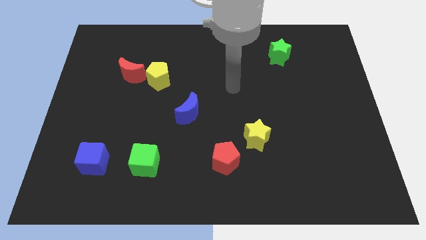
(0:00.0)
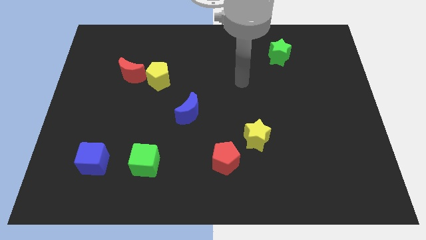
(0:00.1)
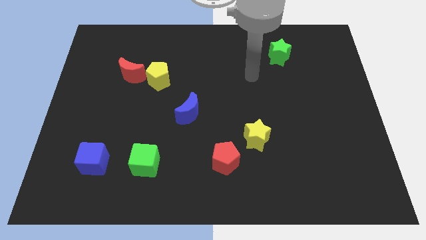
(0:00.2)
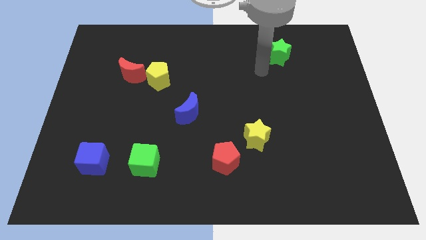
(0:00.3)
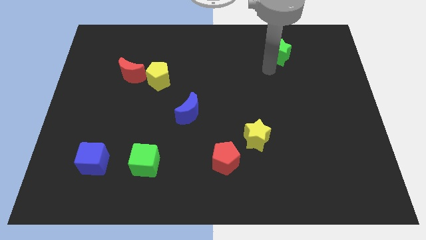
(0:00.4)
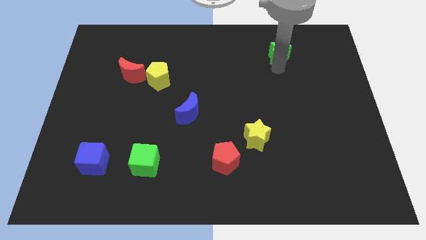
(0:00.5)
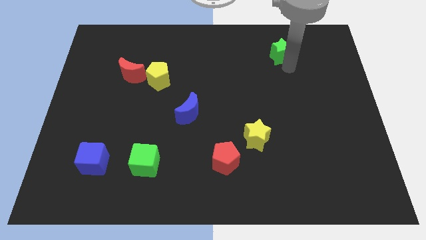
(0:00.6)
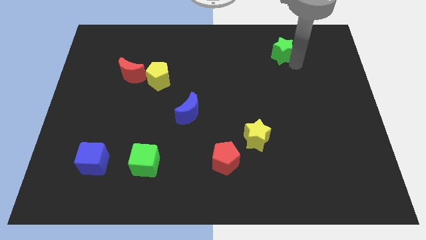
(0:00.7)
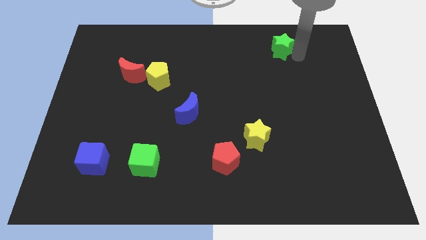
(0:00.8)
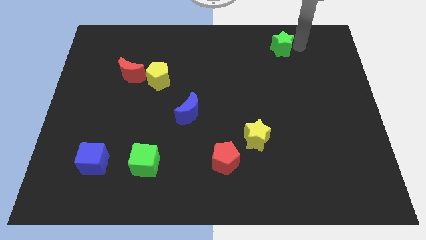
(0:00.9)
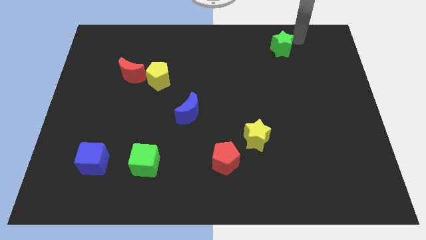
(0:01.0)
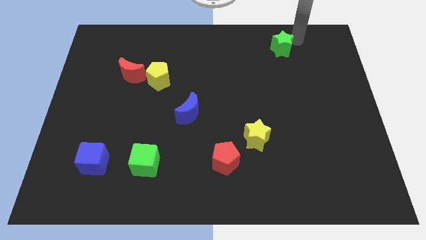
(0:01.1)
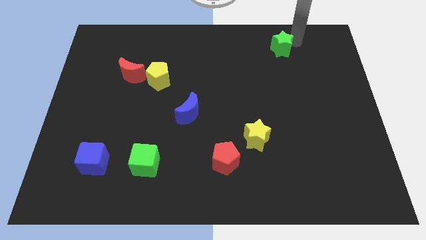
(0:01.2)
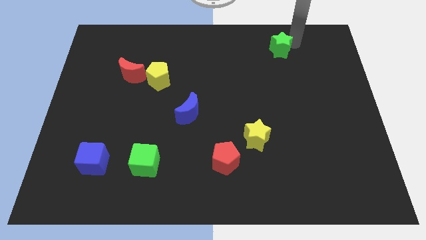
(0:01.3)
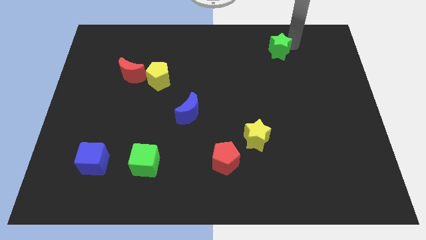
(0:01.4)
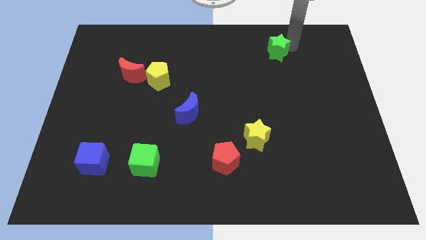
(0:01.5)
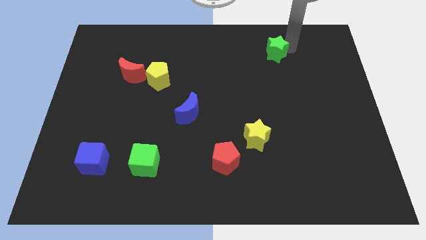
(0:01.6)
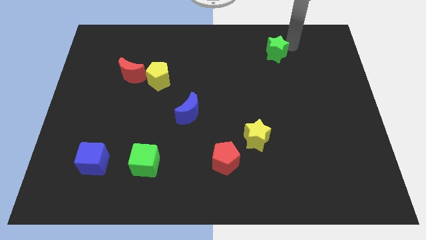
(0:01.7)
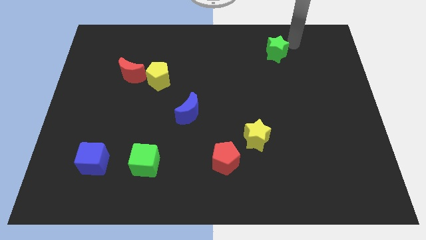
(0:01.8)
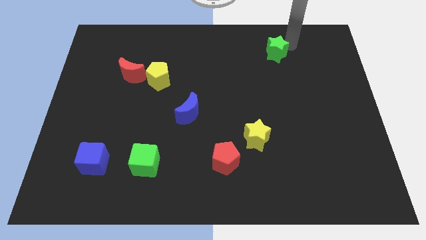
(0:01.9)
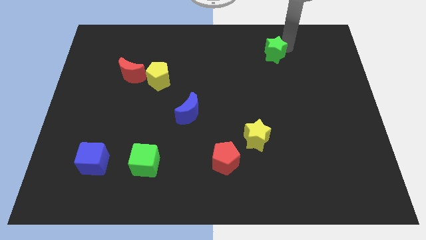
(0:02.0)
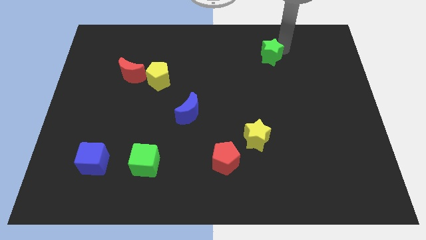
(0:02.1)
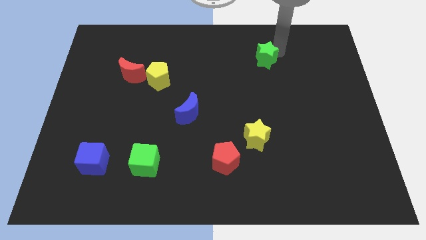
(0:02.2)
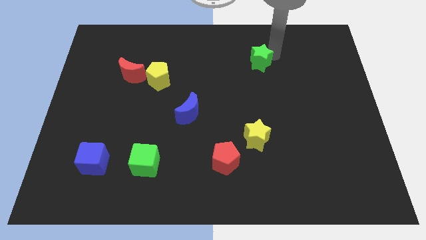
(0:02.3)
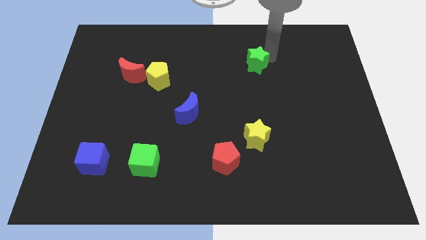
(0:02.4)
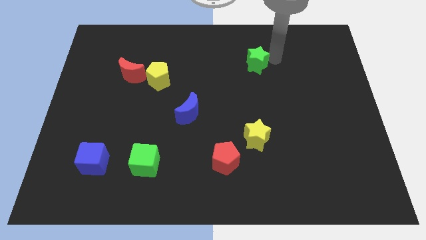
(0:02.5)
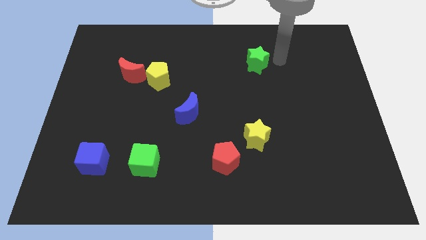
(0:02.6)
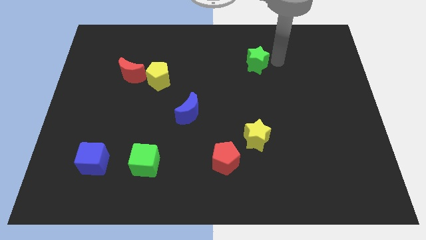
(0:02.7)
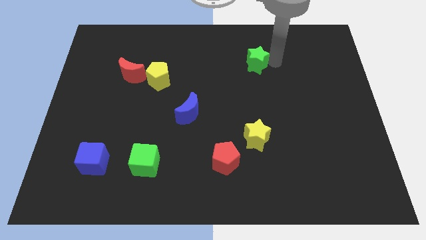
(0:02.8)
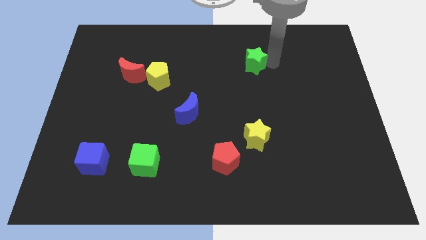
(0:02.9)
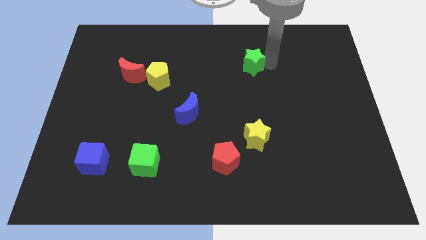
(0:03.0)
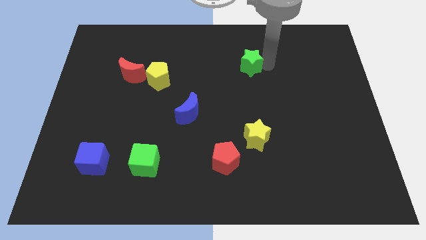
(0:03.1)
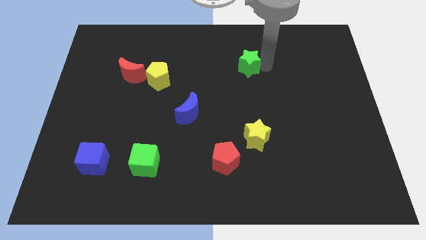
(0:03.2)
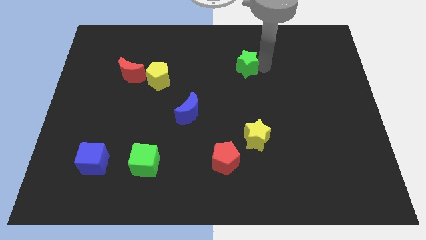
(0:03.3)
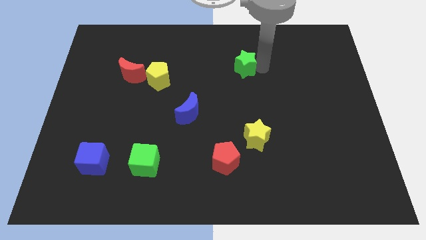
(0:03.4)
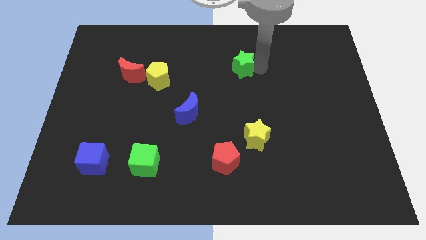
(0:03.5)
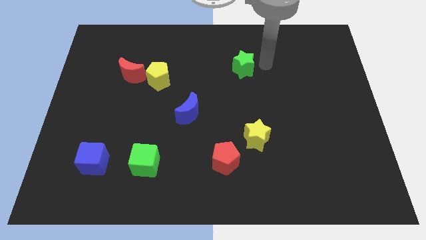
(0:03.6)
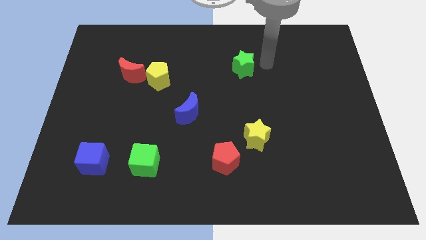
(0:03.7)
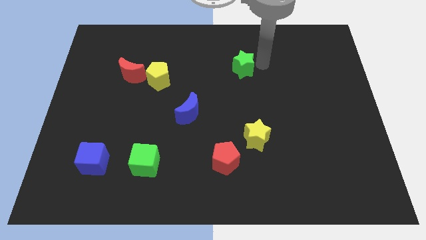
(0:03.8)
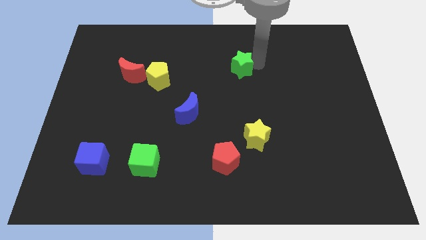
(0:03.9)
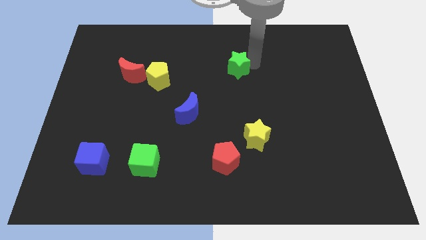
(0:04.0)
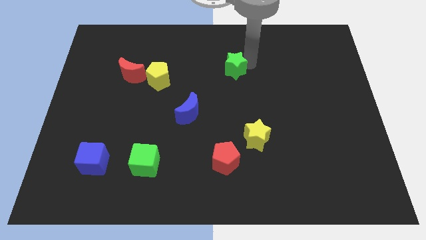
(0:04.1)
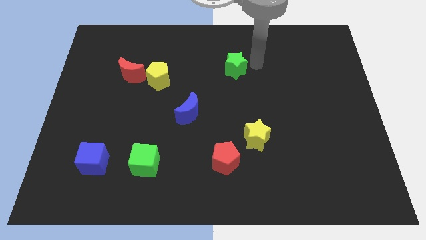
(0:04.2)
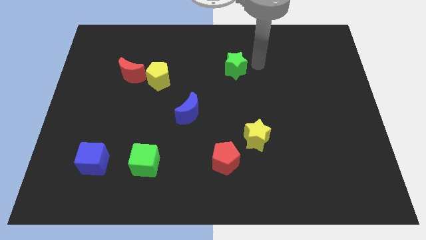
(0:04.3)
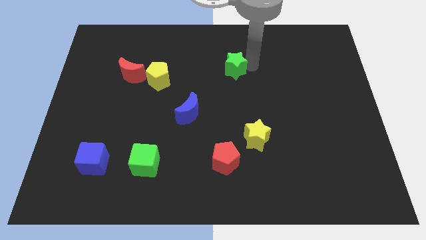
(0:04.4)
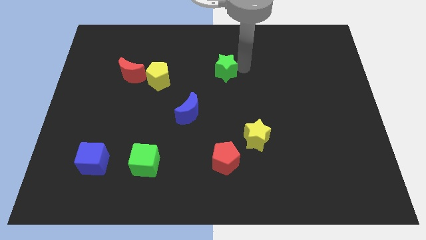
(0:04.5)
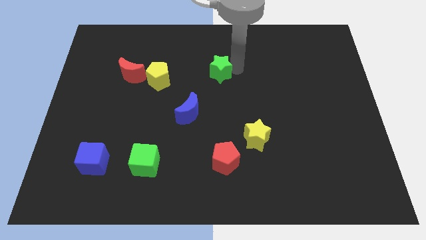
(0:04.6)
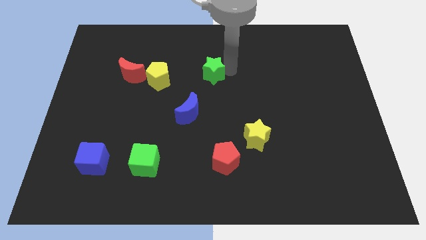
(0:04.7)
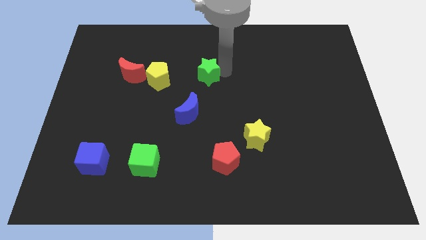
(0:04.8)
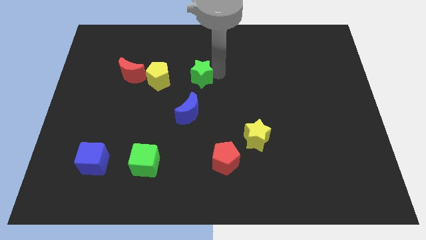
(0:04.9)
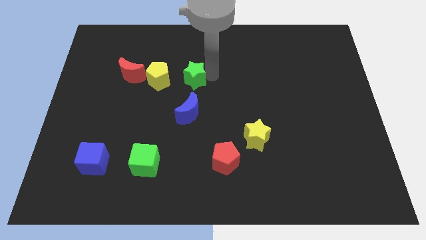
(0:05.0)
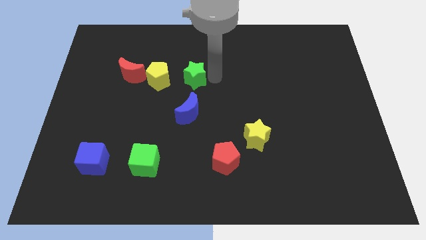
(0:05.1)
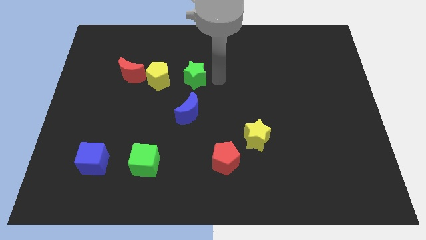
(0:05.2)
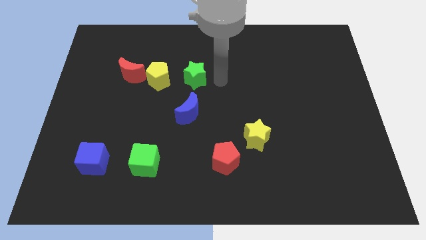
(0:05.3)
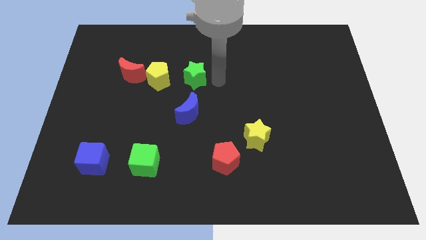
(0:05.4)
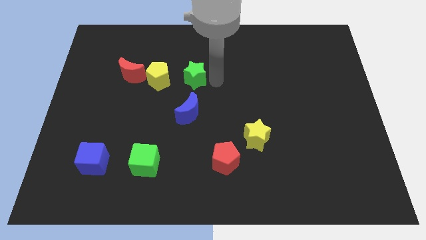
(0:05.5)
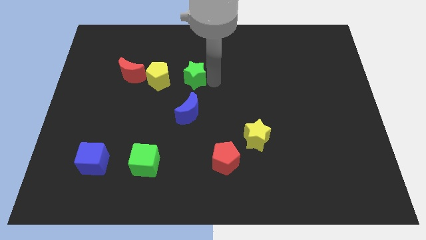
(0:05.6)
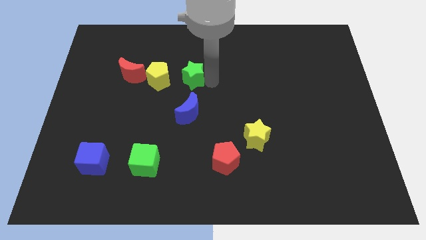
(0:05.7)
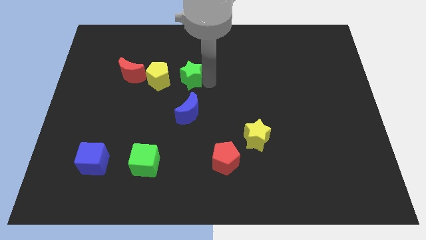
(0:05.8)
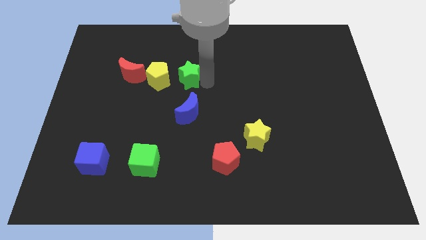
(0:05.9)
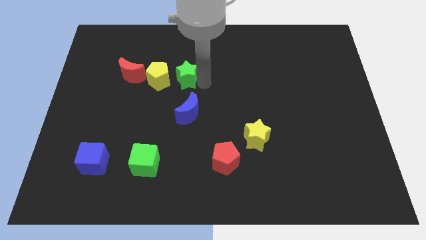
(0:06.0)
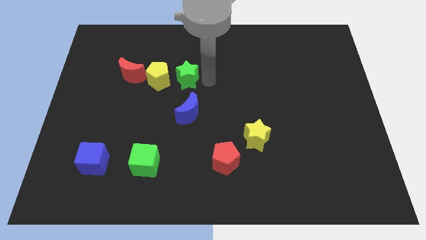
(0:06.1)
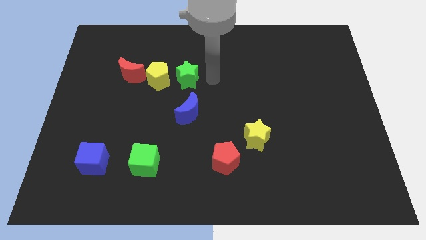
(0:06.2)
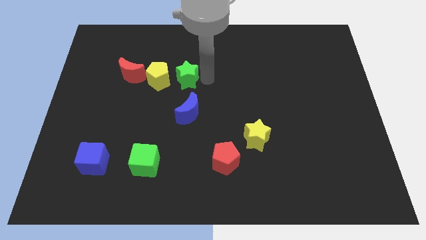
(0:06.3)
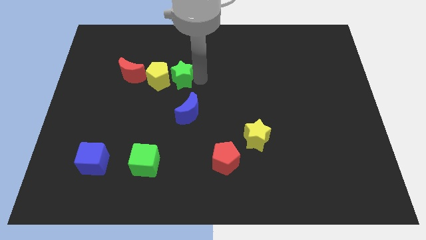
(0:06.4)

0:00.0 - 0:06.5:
push the green star close to the yellow pentagon

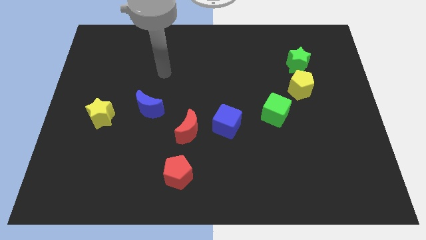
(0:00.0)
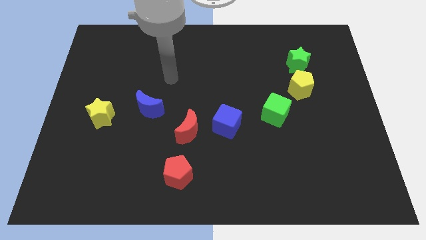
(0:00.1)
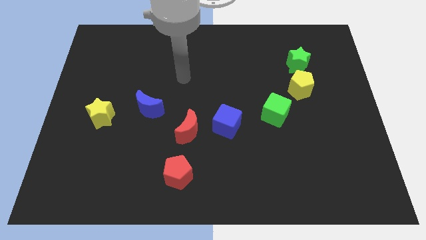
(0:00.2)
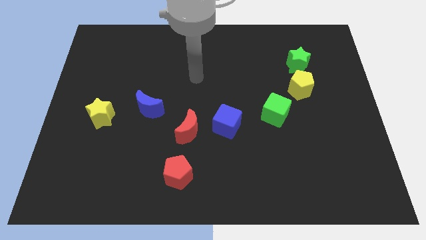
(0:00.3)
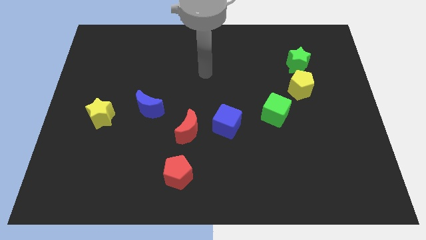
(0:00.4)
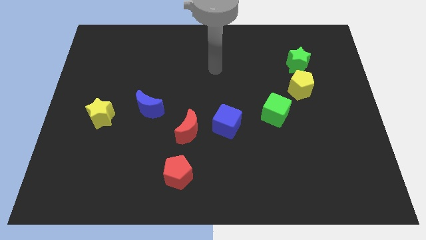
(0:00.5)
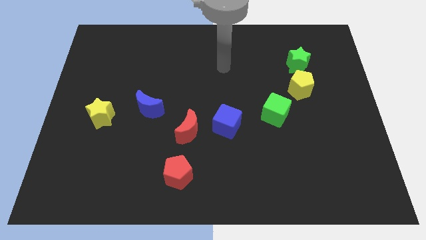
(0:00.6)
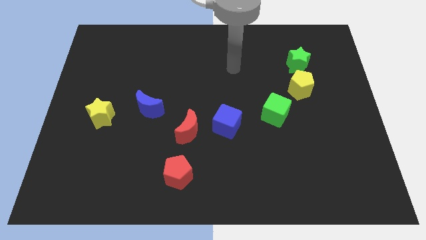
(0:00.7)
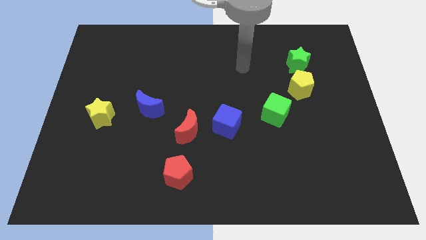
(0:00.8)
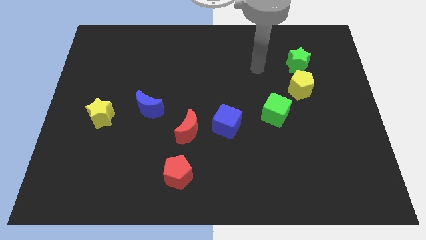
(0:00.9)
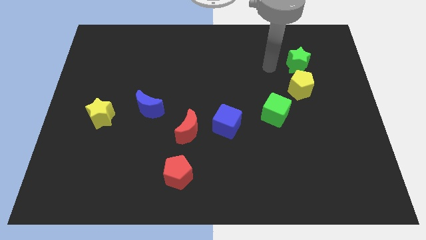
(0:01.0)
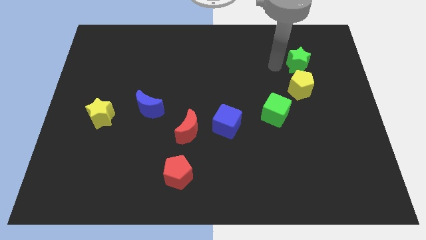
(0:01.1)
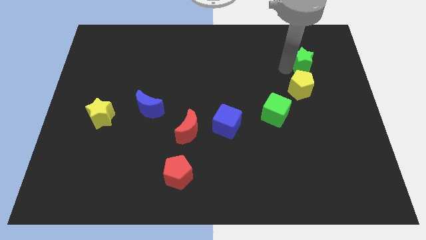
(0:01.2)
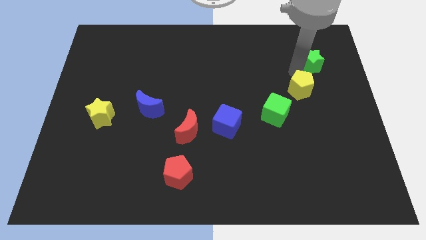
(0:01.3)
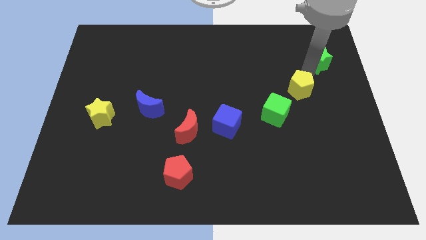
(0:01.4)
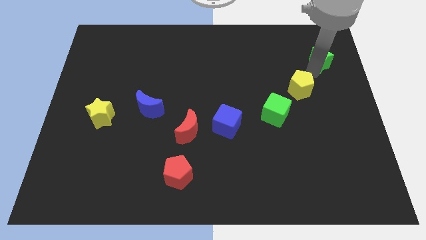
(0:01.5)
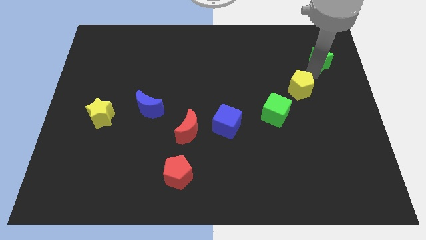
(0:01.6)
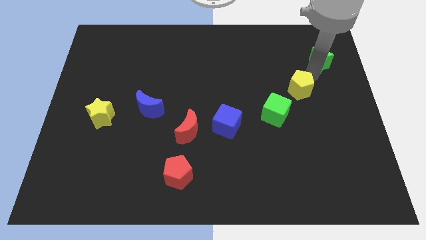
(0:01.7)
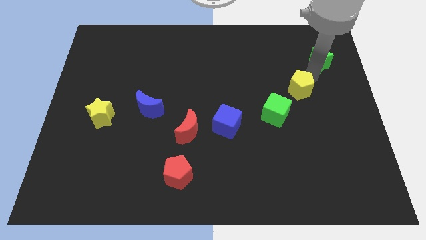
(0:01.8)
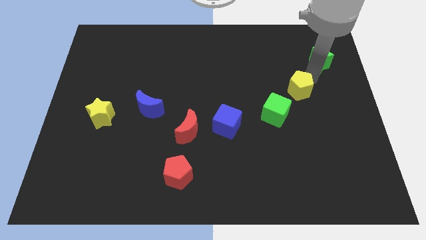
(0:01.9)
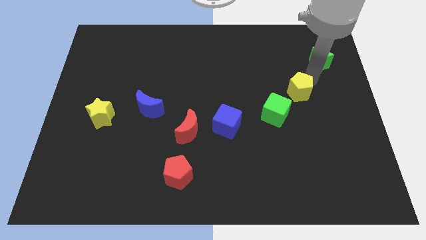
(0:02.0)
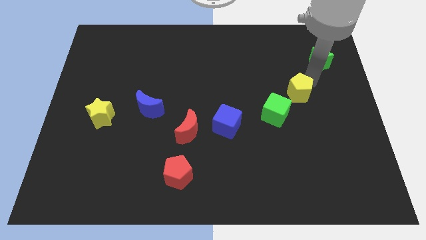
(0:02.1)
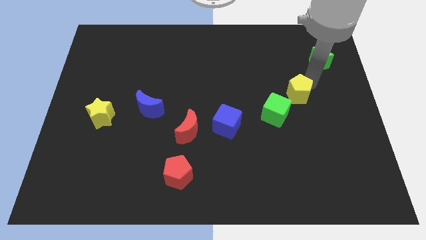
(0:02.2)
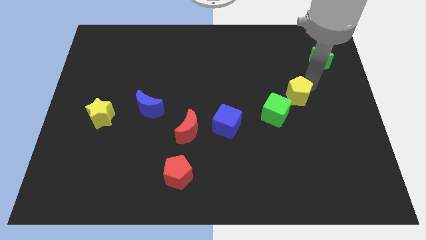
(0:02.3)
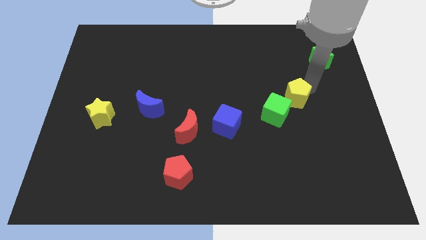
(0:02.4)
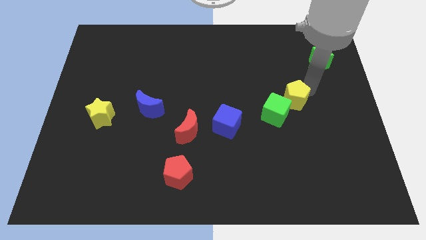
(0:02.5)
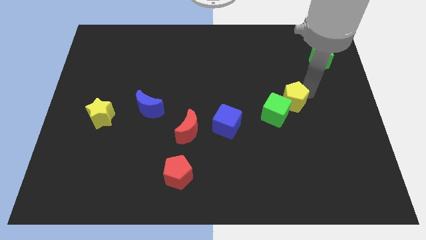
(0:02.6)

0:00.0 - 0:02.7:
move the yellow pentagon next to the green cube
